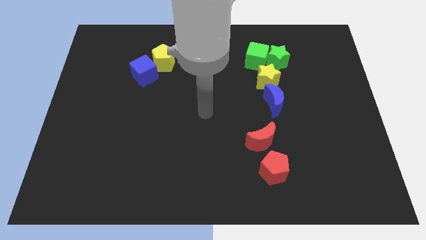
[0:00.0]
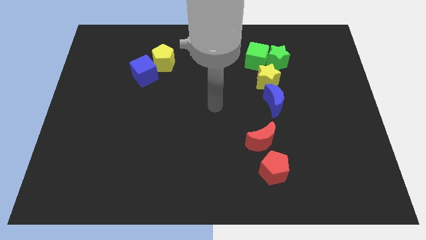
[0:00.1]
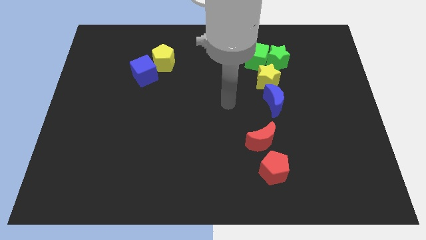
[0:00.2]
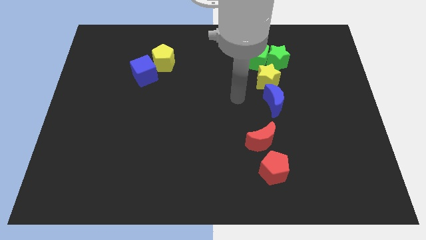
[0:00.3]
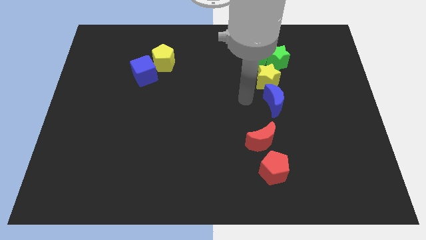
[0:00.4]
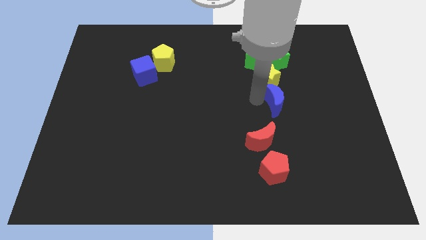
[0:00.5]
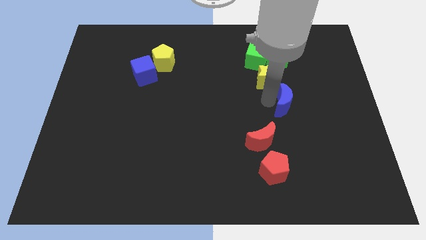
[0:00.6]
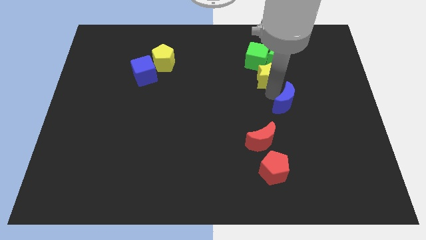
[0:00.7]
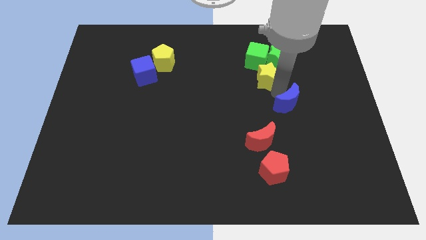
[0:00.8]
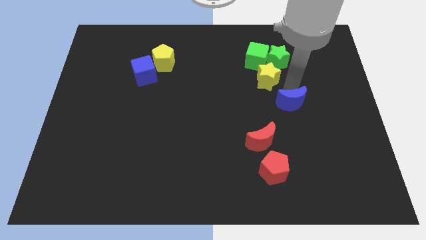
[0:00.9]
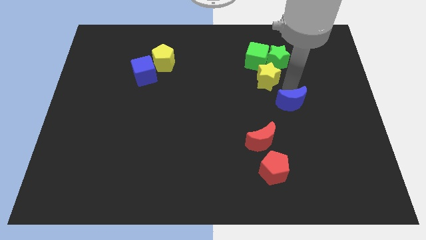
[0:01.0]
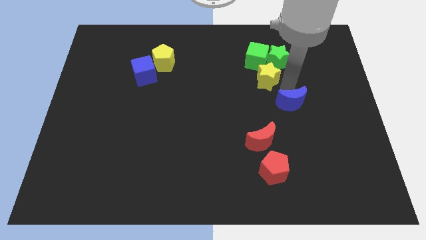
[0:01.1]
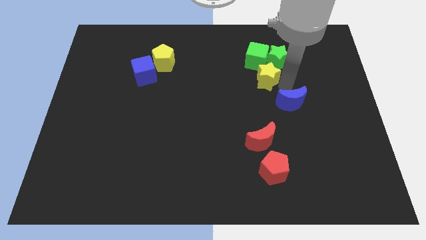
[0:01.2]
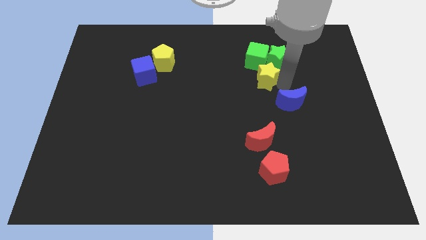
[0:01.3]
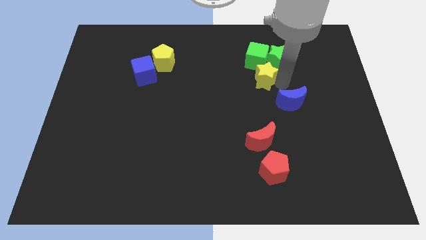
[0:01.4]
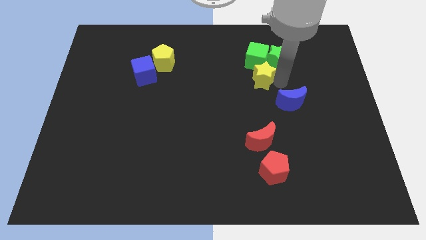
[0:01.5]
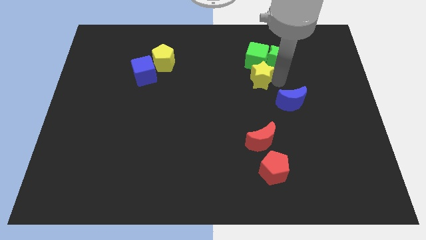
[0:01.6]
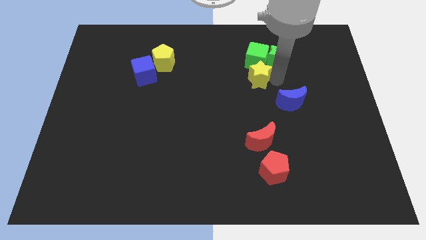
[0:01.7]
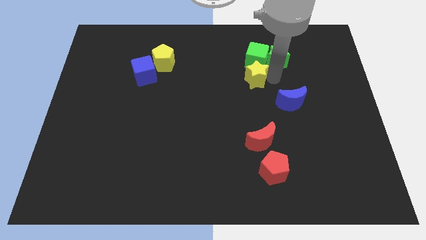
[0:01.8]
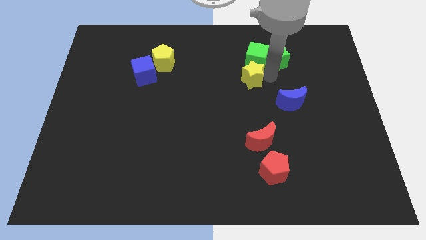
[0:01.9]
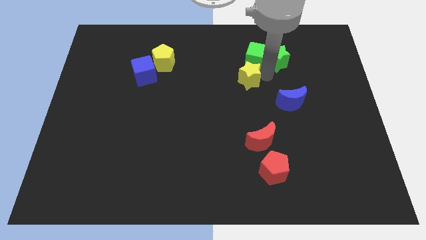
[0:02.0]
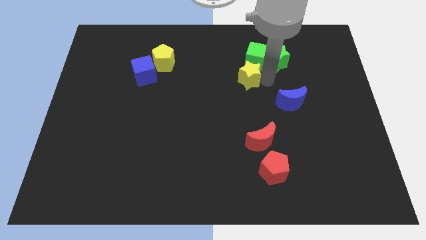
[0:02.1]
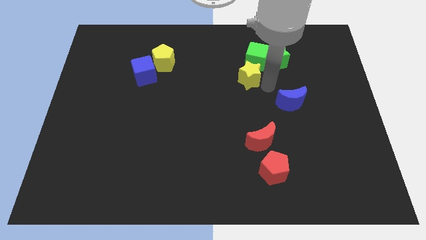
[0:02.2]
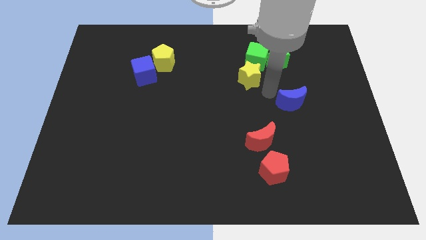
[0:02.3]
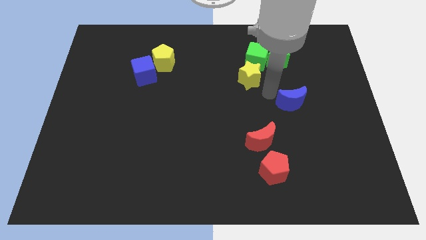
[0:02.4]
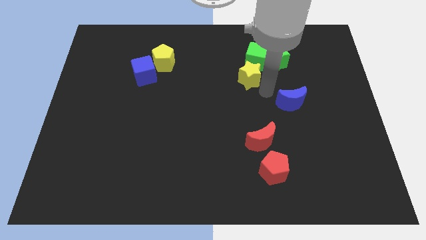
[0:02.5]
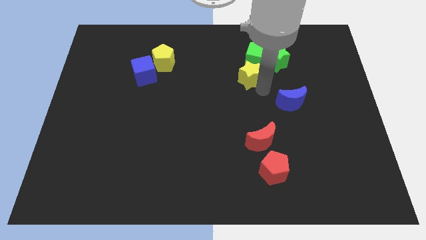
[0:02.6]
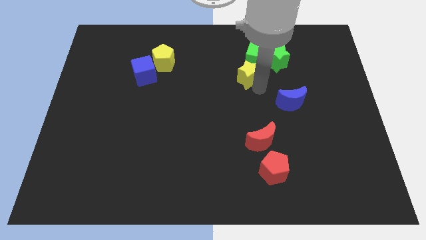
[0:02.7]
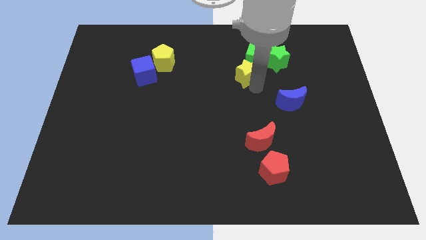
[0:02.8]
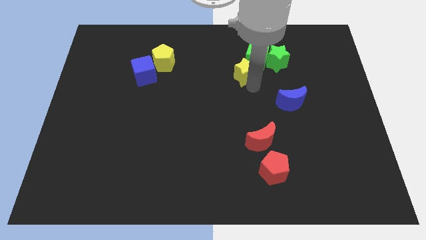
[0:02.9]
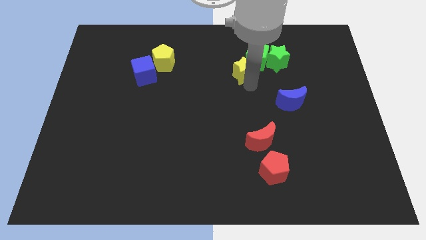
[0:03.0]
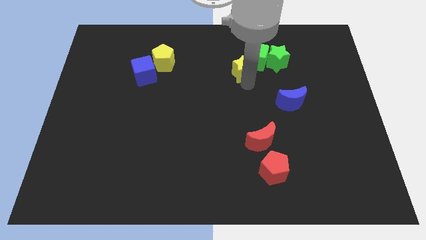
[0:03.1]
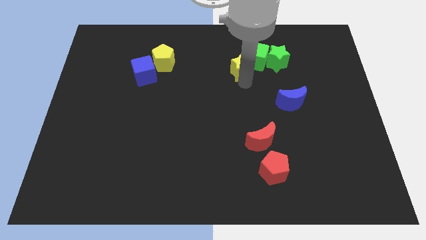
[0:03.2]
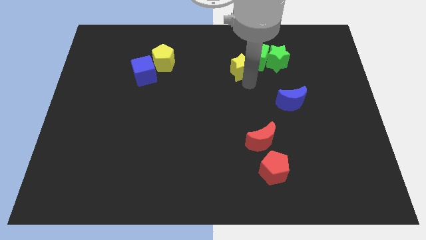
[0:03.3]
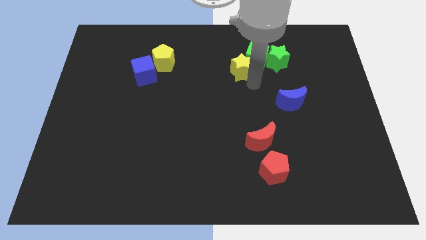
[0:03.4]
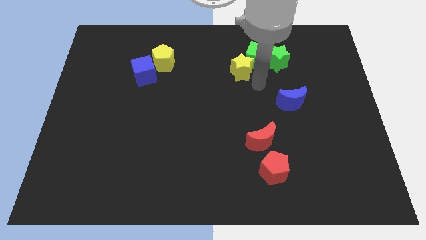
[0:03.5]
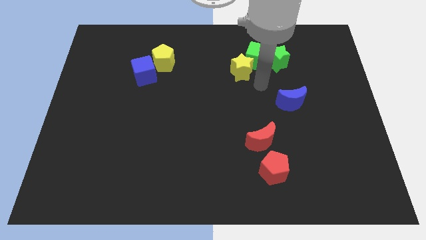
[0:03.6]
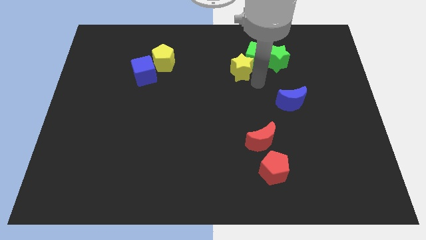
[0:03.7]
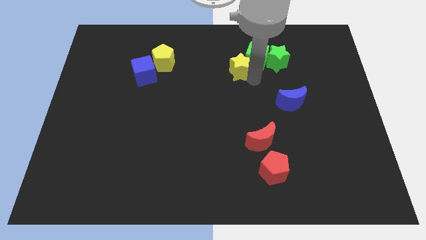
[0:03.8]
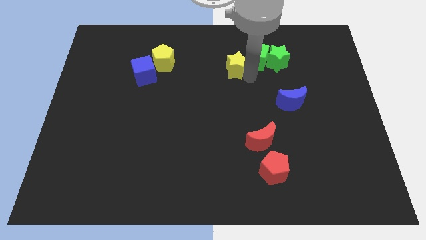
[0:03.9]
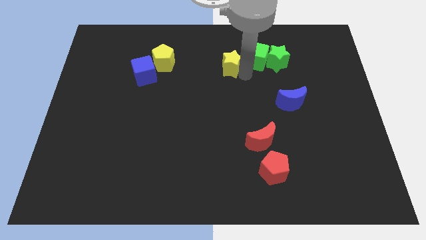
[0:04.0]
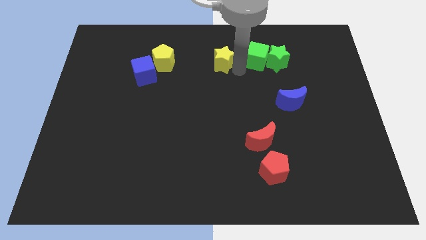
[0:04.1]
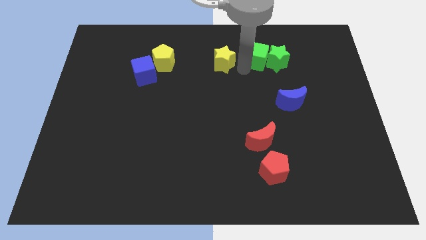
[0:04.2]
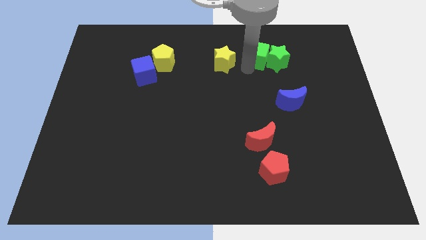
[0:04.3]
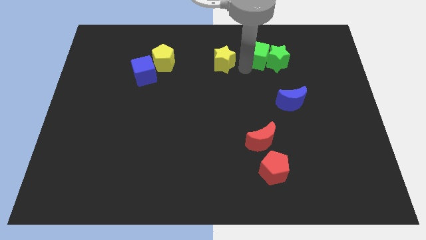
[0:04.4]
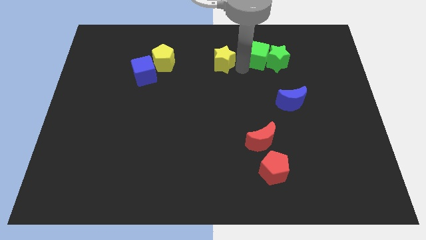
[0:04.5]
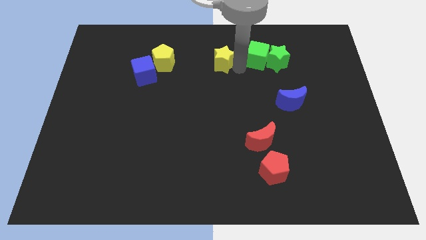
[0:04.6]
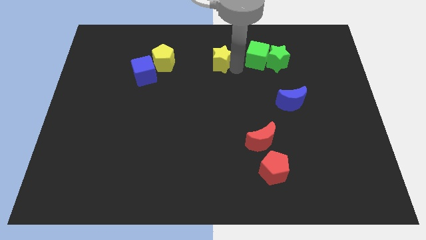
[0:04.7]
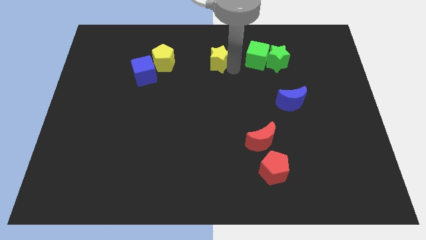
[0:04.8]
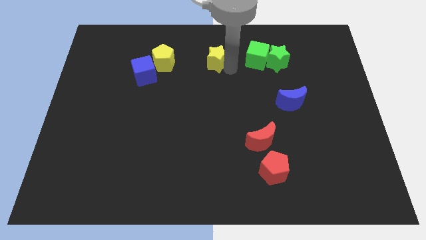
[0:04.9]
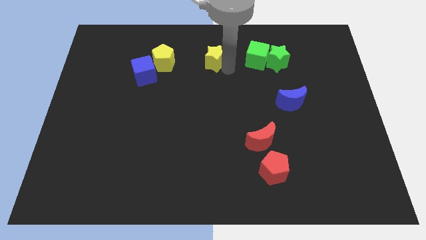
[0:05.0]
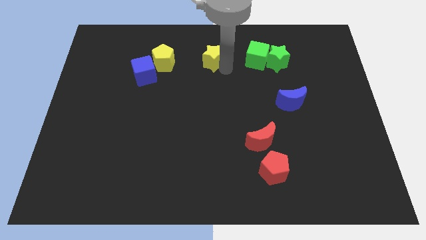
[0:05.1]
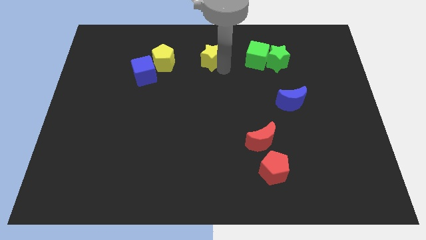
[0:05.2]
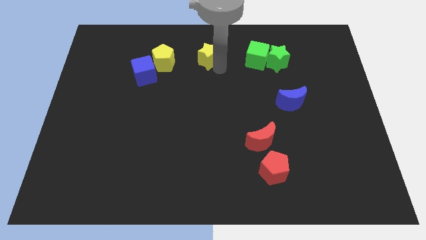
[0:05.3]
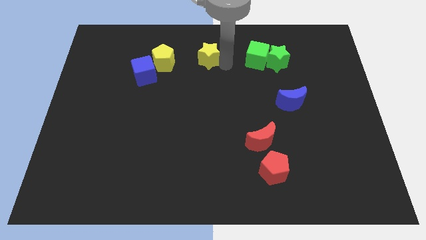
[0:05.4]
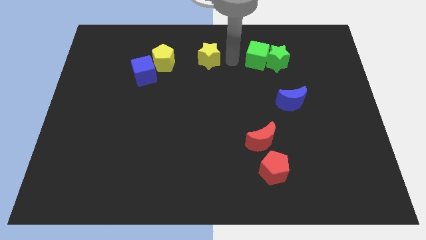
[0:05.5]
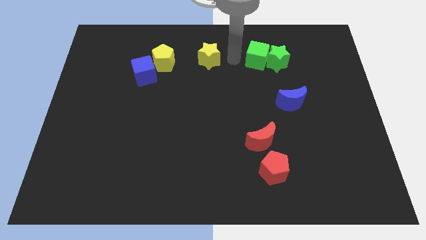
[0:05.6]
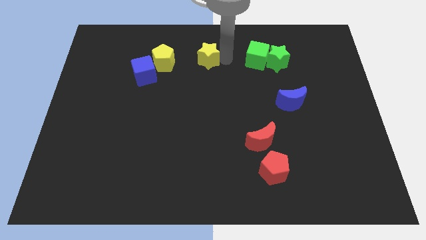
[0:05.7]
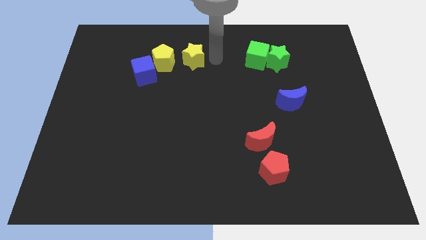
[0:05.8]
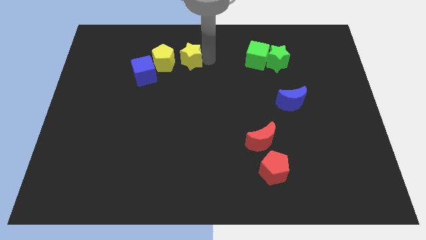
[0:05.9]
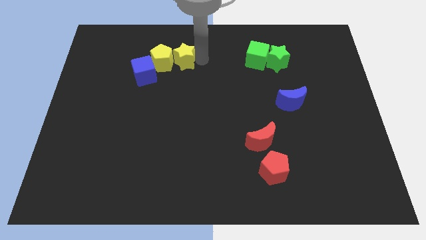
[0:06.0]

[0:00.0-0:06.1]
slide the yellow star diagonally up and to the right of the blue cube

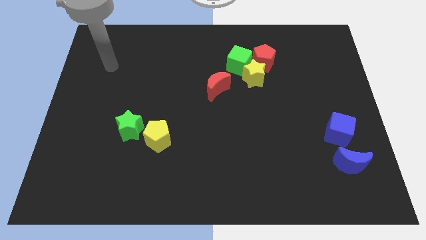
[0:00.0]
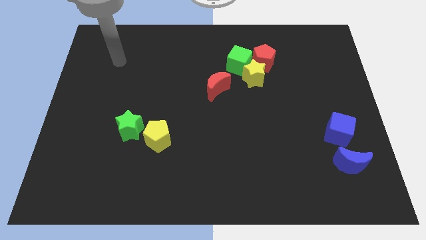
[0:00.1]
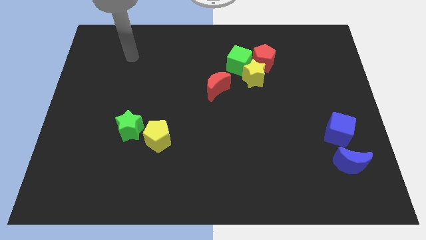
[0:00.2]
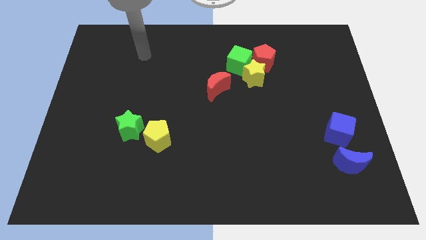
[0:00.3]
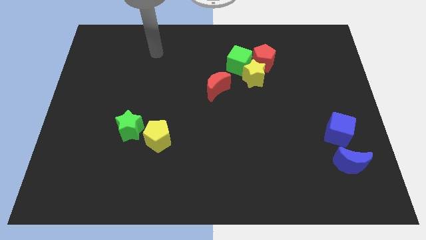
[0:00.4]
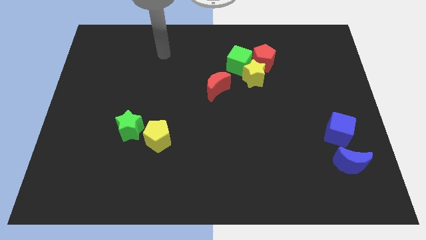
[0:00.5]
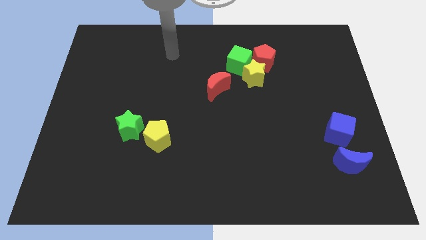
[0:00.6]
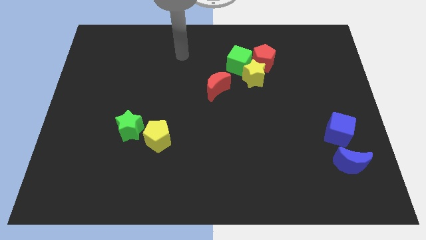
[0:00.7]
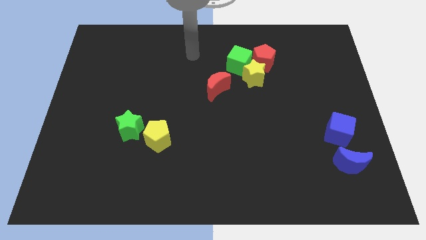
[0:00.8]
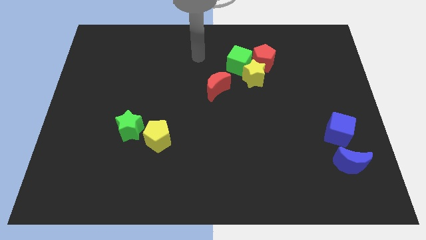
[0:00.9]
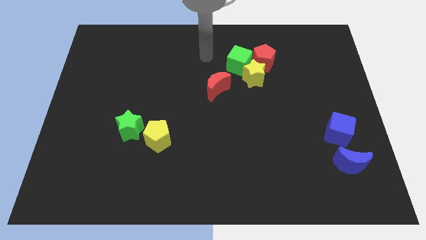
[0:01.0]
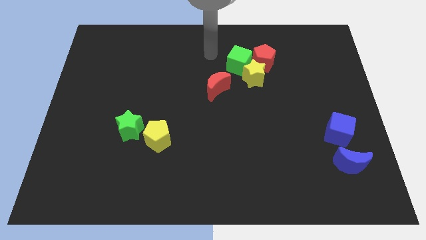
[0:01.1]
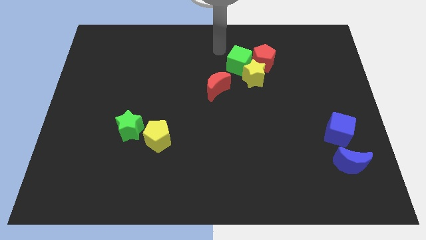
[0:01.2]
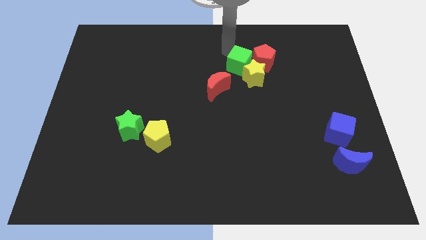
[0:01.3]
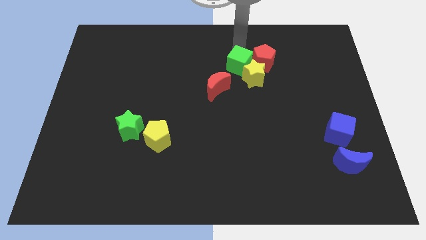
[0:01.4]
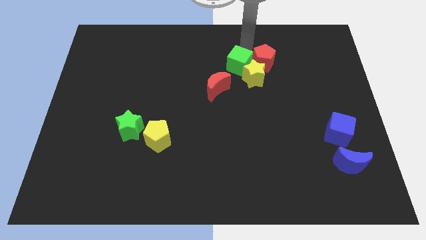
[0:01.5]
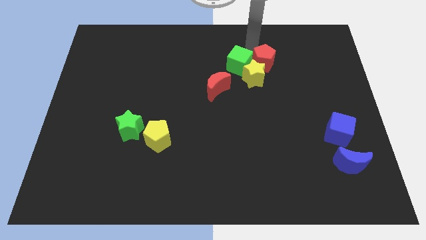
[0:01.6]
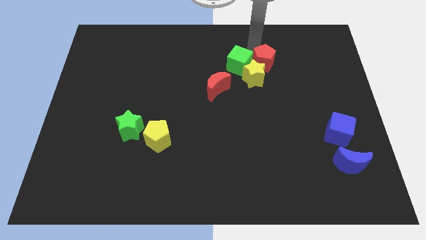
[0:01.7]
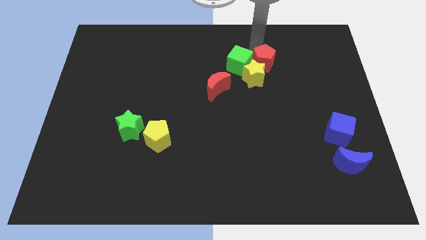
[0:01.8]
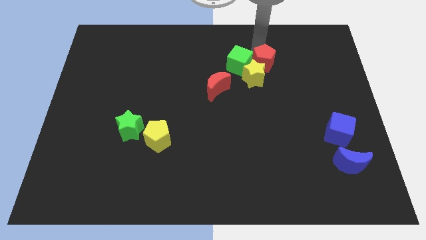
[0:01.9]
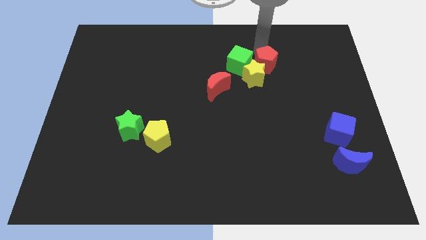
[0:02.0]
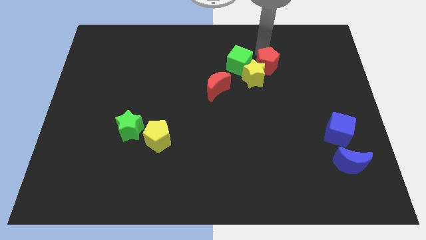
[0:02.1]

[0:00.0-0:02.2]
move the red pentagon to the bottom right of the green cube
